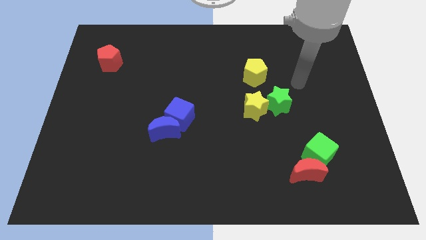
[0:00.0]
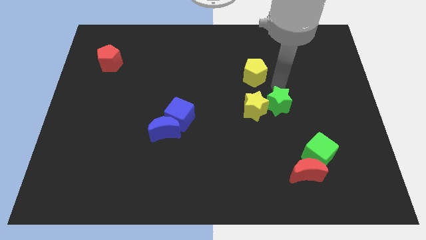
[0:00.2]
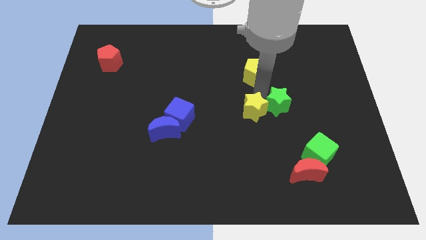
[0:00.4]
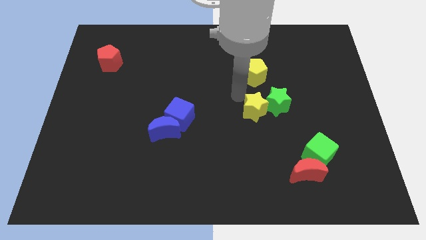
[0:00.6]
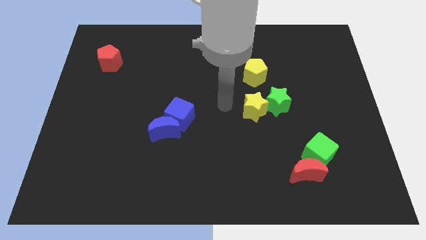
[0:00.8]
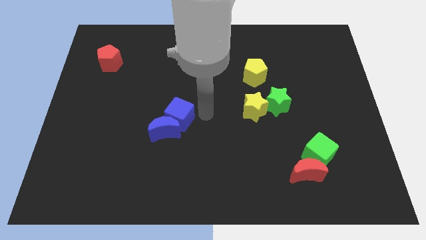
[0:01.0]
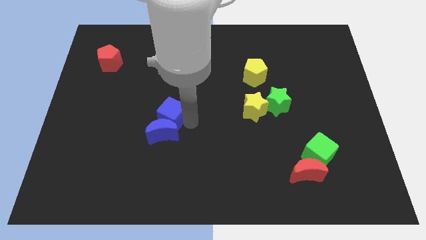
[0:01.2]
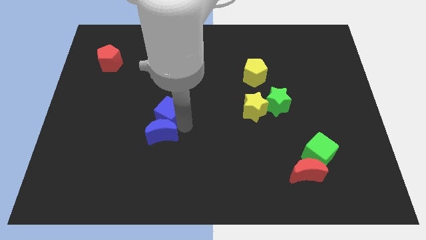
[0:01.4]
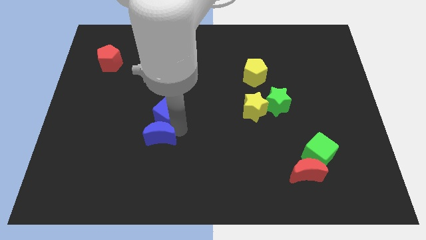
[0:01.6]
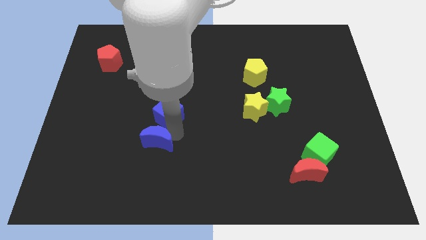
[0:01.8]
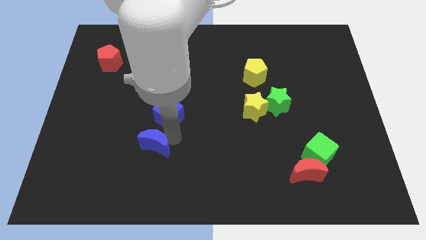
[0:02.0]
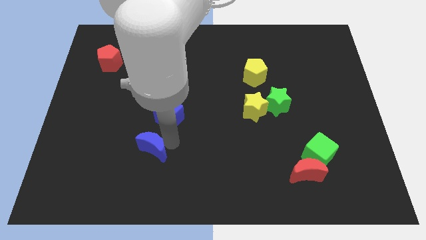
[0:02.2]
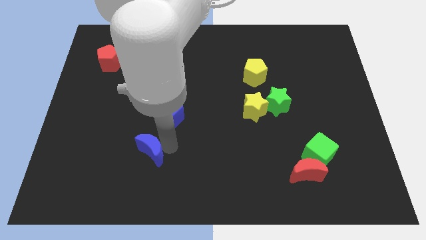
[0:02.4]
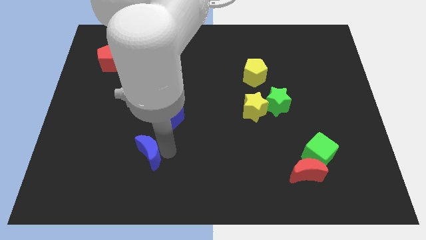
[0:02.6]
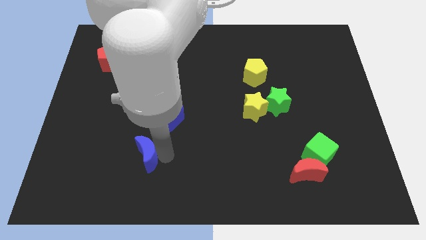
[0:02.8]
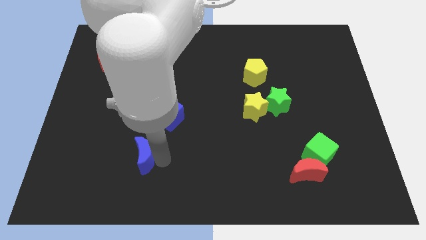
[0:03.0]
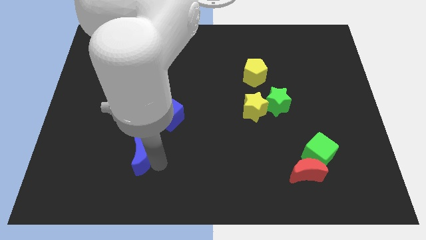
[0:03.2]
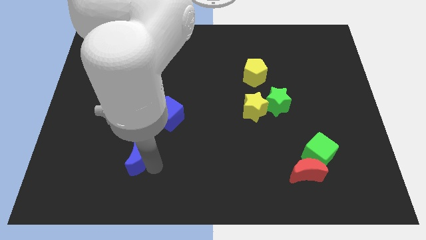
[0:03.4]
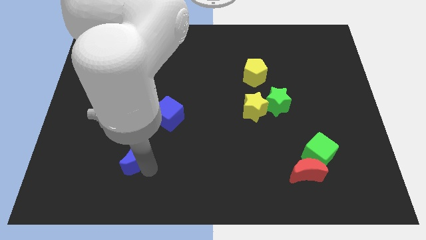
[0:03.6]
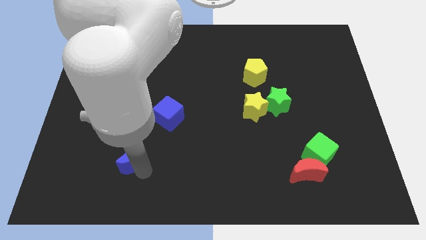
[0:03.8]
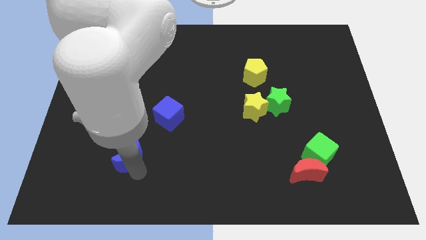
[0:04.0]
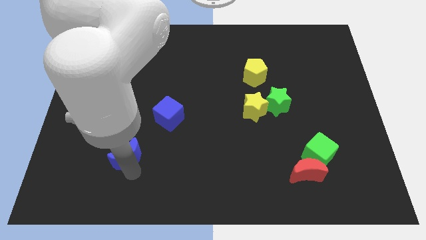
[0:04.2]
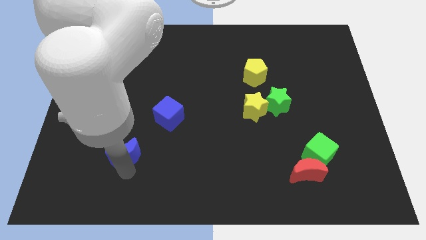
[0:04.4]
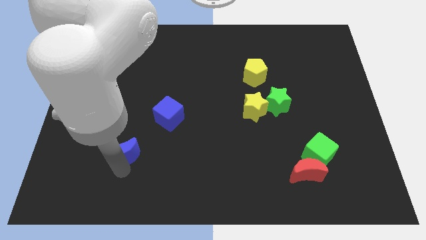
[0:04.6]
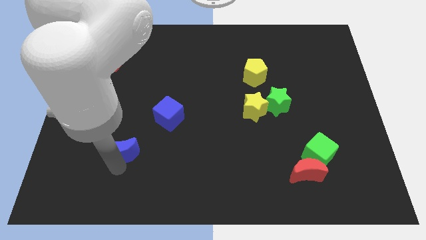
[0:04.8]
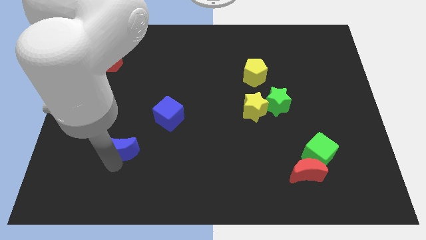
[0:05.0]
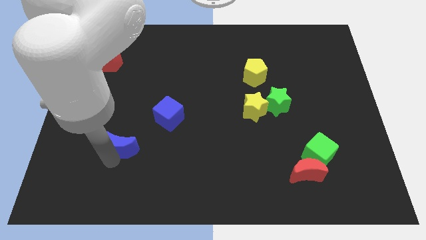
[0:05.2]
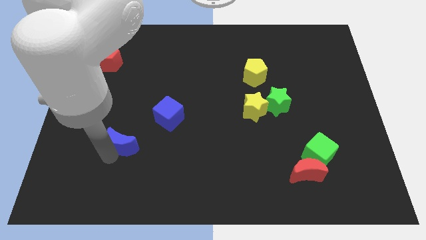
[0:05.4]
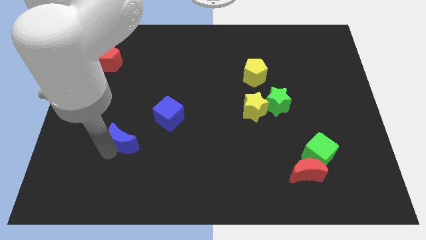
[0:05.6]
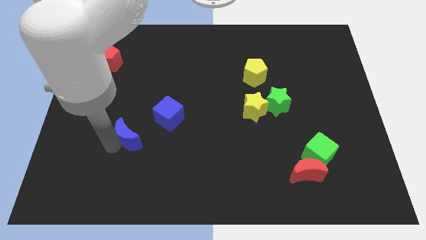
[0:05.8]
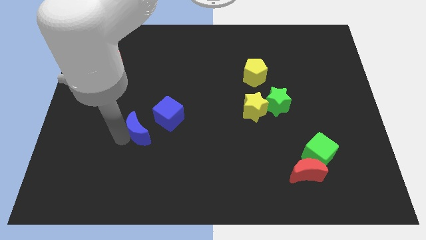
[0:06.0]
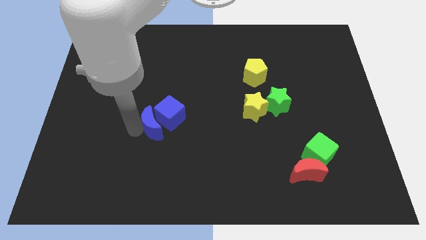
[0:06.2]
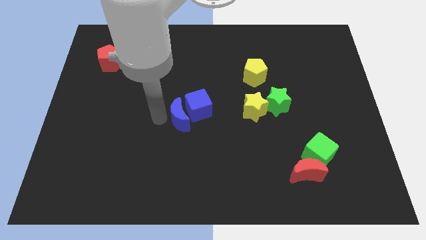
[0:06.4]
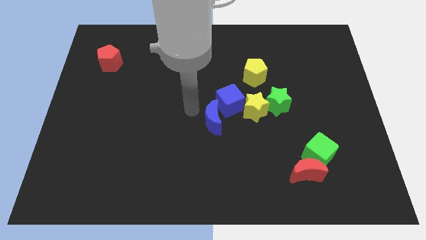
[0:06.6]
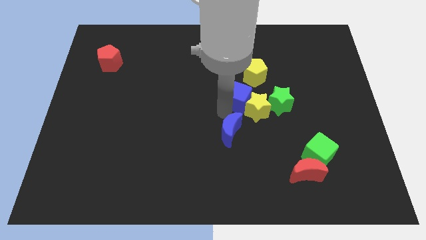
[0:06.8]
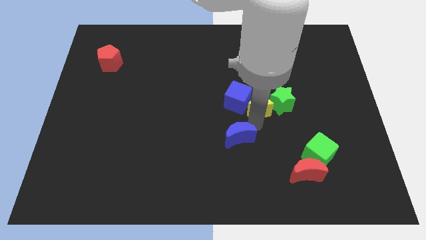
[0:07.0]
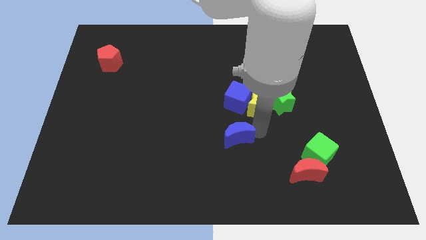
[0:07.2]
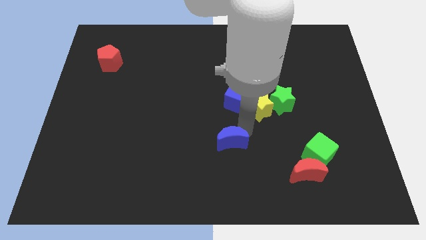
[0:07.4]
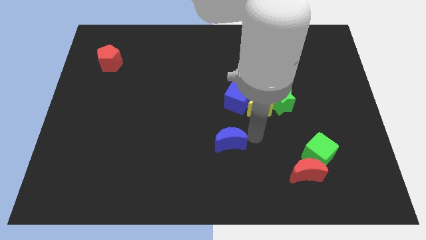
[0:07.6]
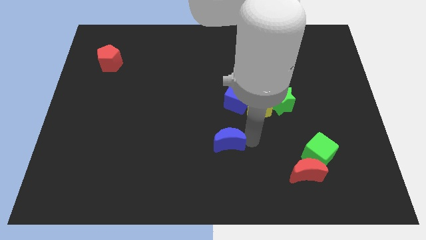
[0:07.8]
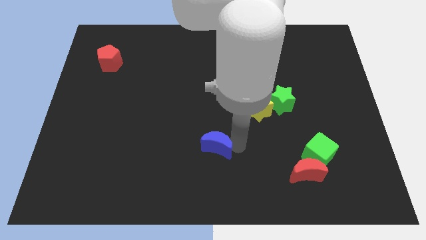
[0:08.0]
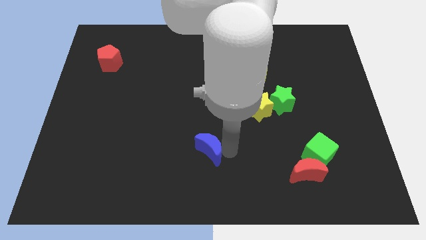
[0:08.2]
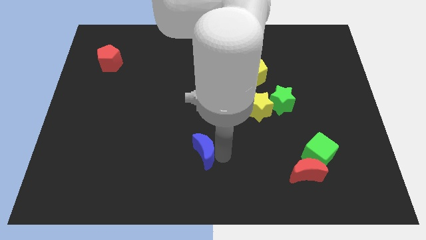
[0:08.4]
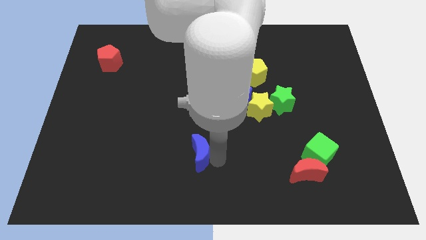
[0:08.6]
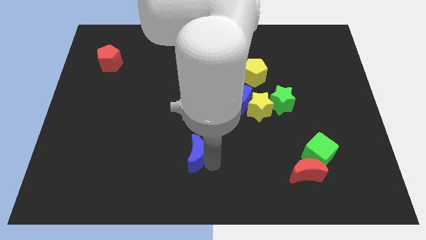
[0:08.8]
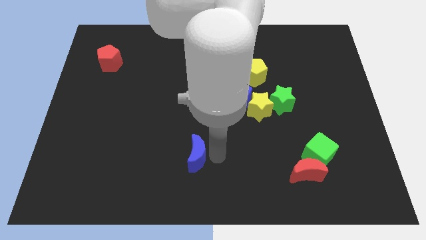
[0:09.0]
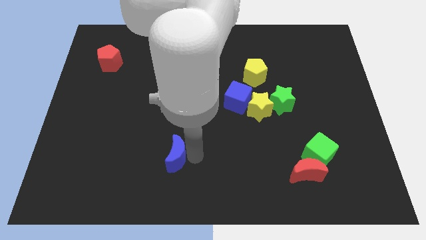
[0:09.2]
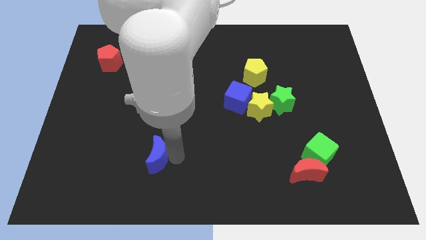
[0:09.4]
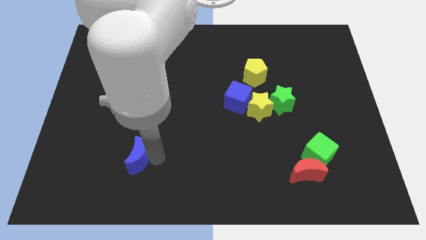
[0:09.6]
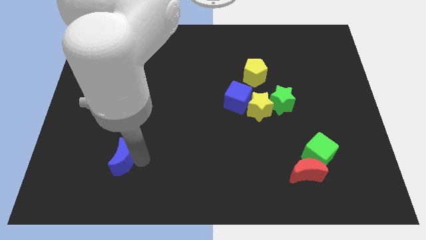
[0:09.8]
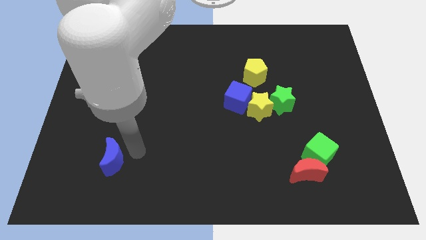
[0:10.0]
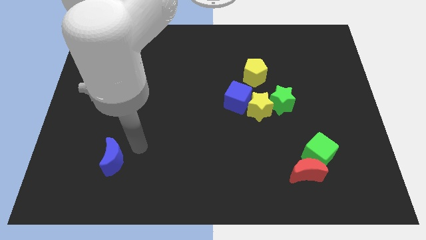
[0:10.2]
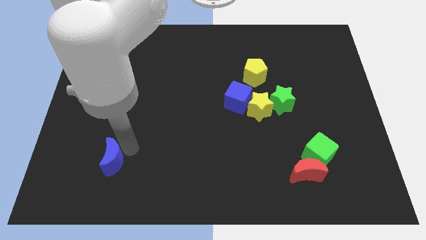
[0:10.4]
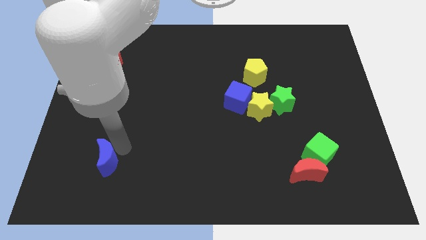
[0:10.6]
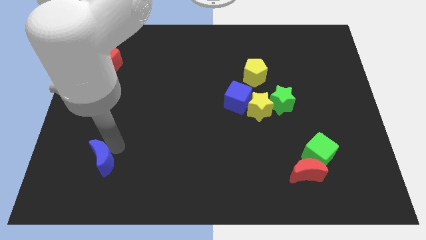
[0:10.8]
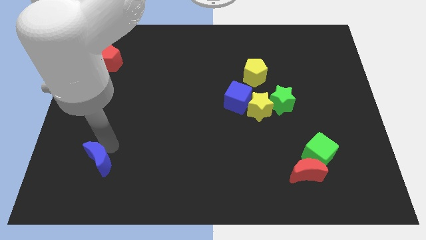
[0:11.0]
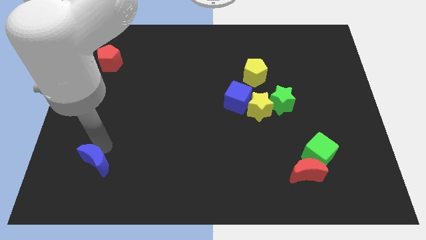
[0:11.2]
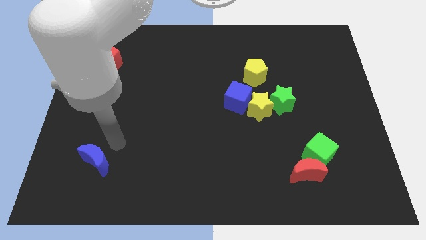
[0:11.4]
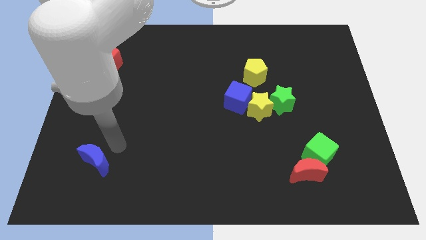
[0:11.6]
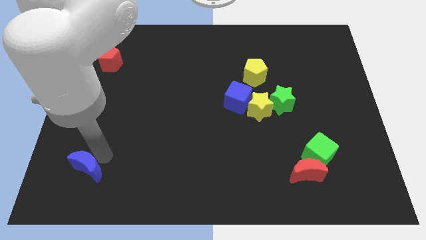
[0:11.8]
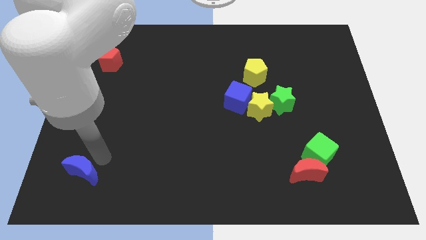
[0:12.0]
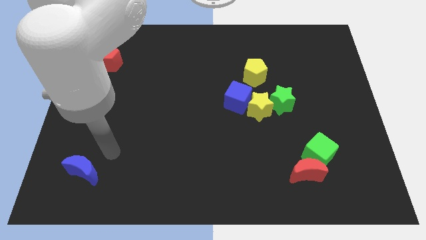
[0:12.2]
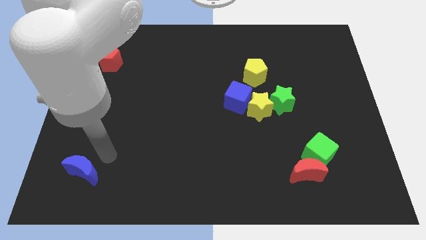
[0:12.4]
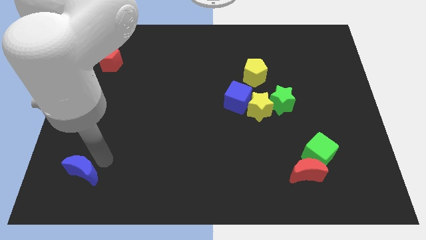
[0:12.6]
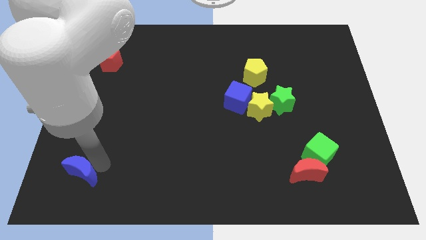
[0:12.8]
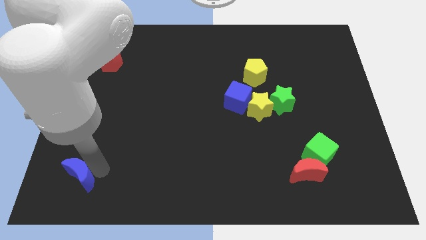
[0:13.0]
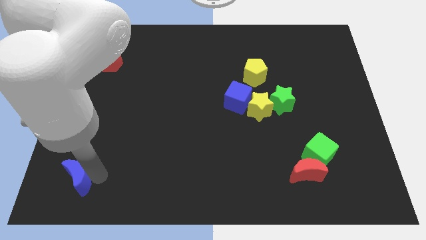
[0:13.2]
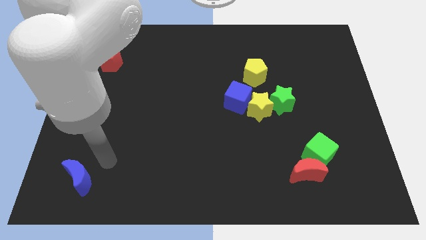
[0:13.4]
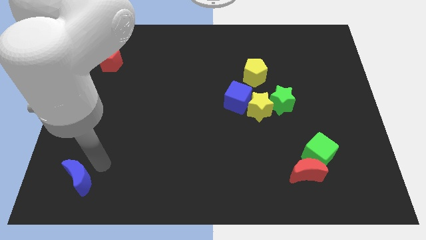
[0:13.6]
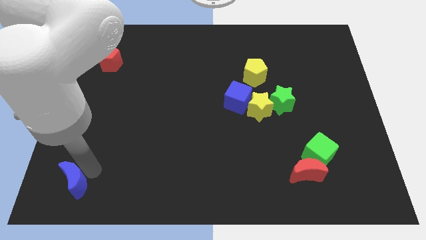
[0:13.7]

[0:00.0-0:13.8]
slide the blue moon to the bottom left

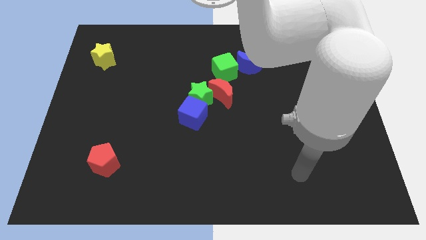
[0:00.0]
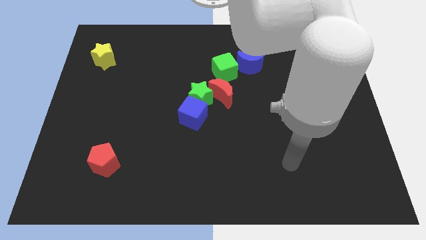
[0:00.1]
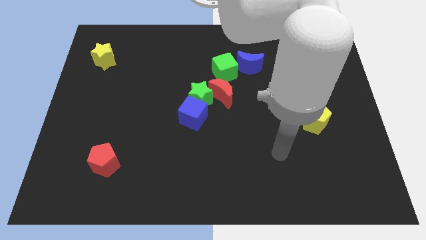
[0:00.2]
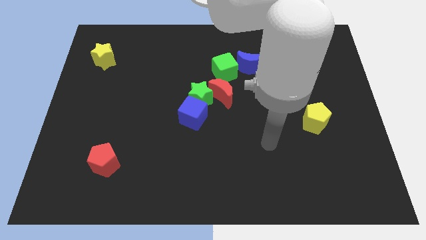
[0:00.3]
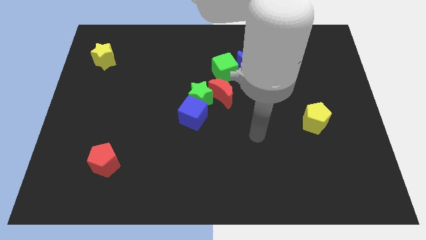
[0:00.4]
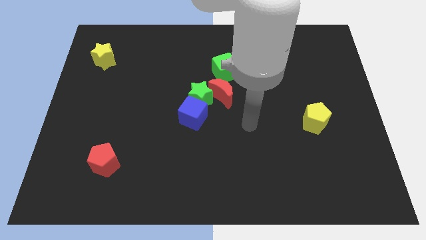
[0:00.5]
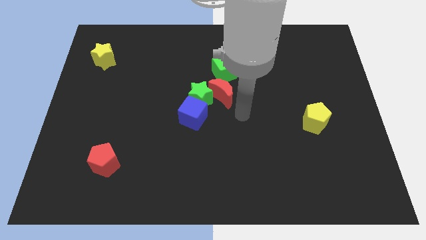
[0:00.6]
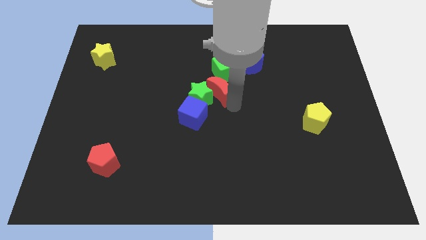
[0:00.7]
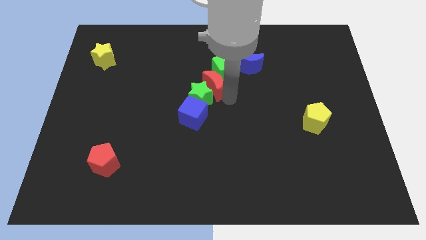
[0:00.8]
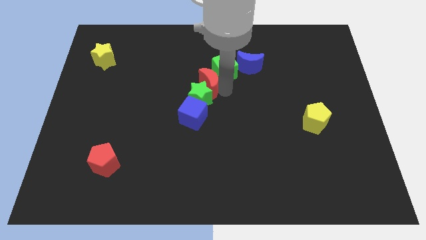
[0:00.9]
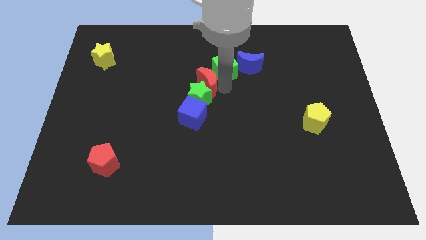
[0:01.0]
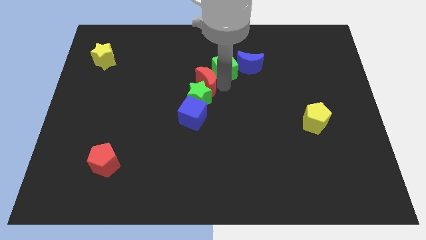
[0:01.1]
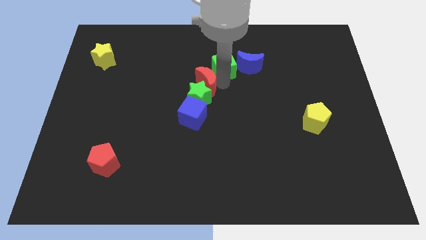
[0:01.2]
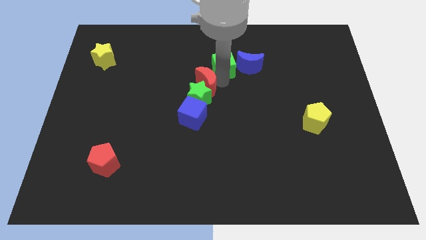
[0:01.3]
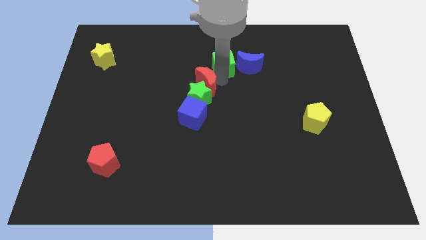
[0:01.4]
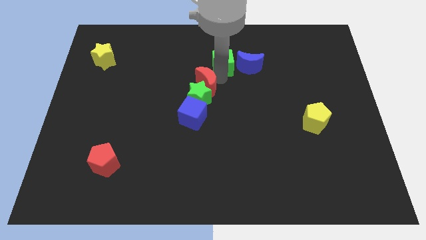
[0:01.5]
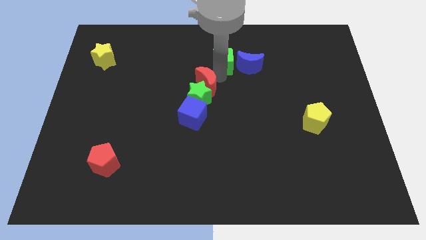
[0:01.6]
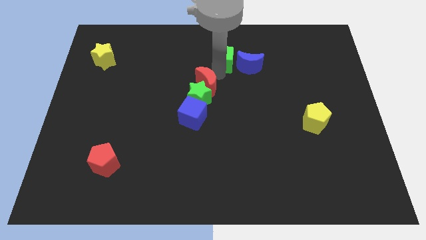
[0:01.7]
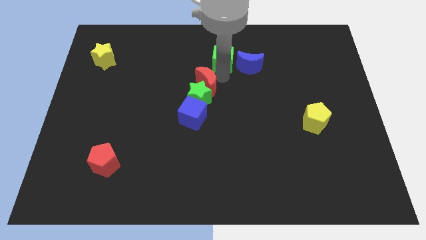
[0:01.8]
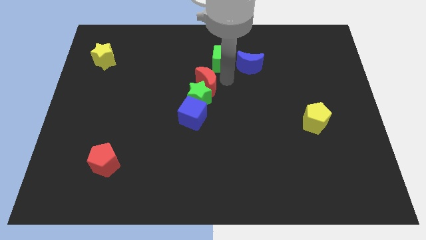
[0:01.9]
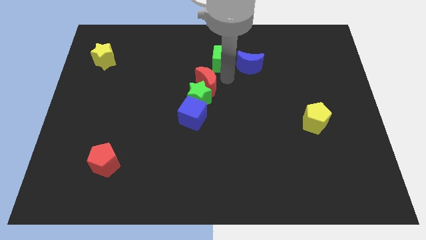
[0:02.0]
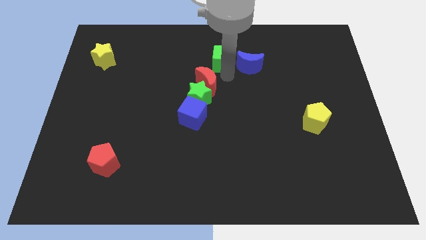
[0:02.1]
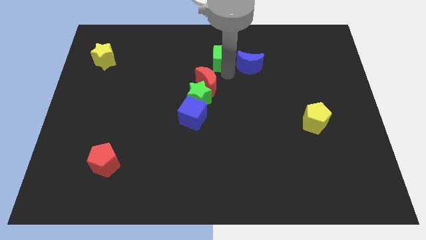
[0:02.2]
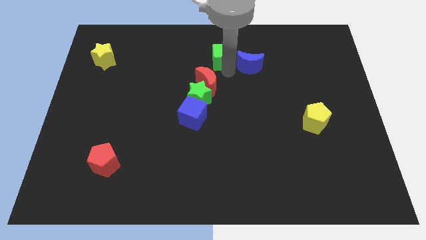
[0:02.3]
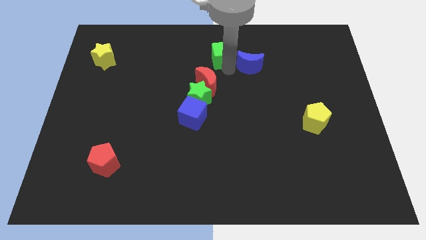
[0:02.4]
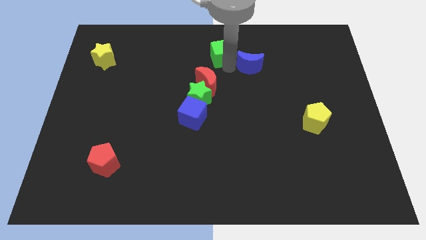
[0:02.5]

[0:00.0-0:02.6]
slide the green cube to the top side
